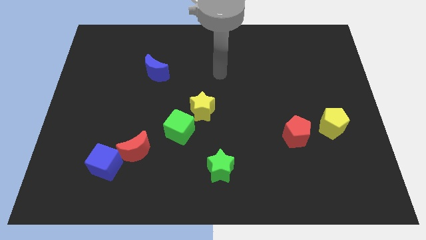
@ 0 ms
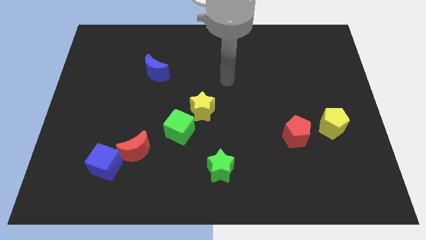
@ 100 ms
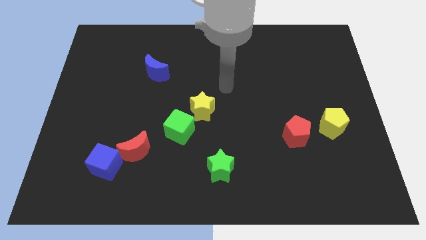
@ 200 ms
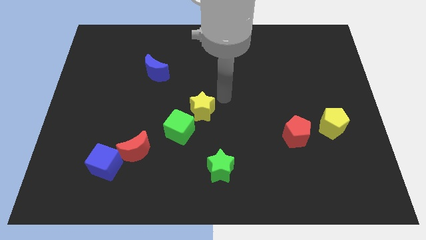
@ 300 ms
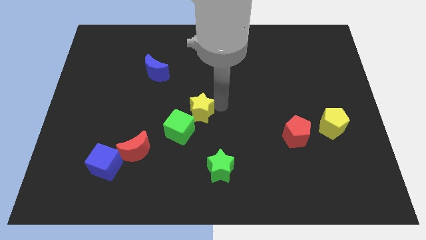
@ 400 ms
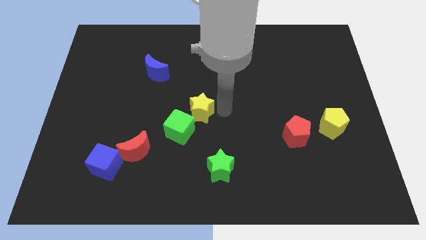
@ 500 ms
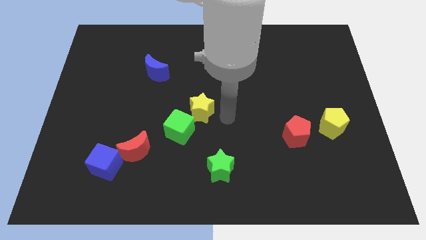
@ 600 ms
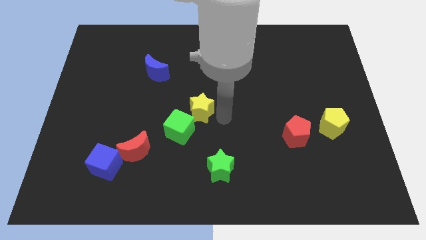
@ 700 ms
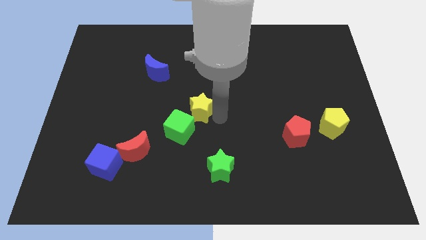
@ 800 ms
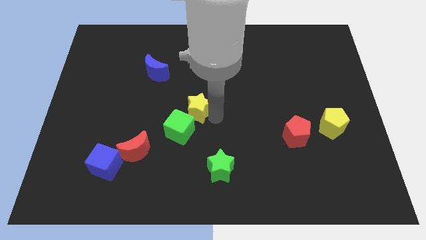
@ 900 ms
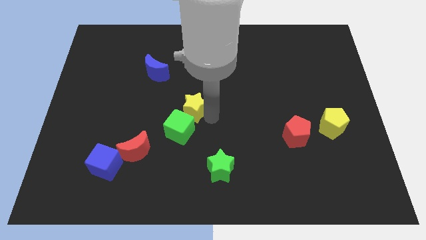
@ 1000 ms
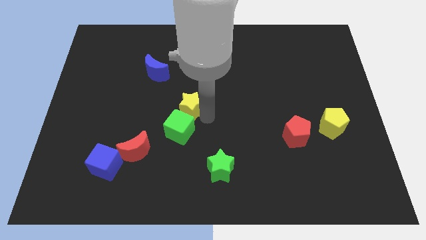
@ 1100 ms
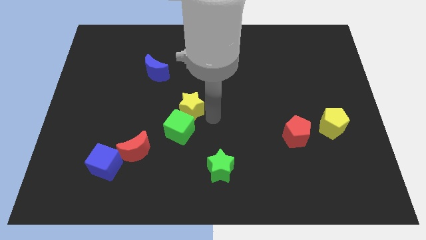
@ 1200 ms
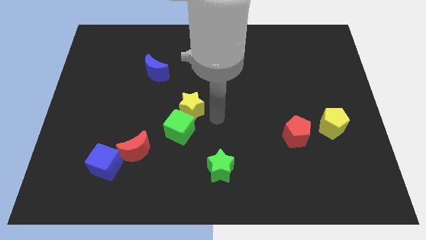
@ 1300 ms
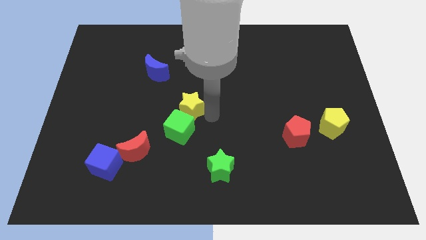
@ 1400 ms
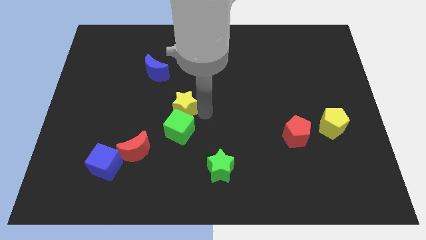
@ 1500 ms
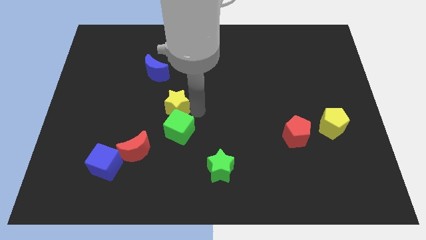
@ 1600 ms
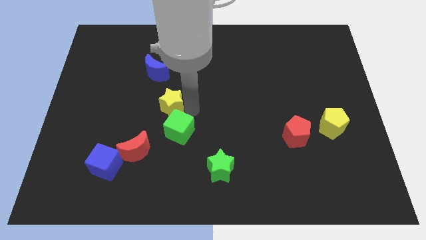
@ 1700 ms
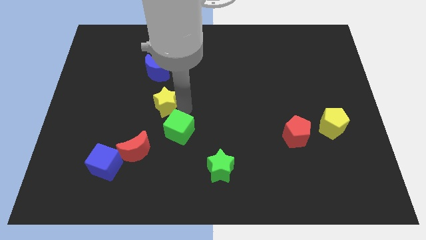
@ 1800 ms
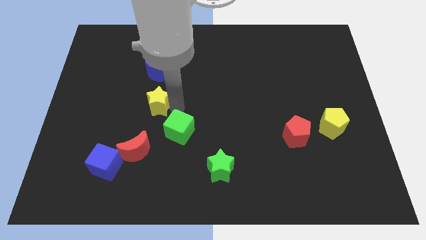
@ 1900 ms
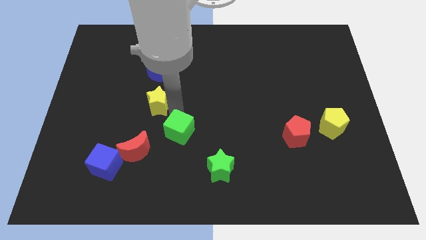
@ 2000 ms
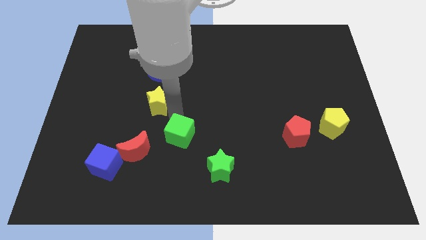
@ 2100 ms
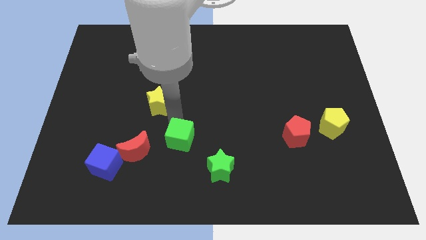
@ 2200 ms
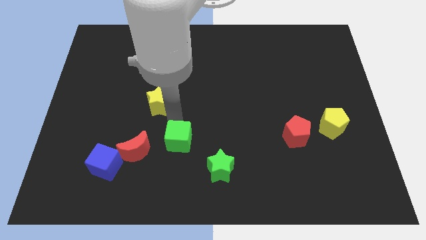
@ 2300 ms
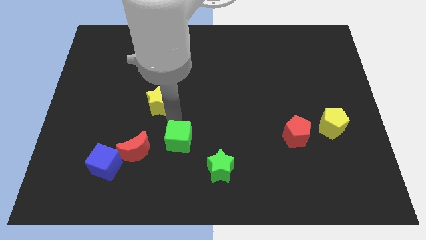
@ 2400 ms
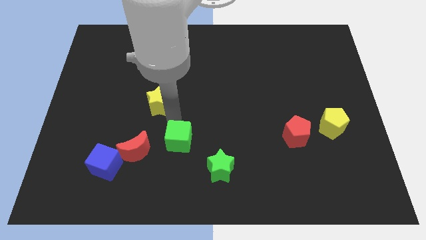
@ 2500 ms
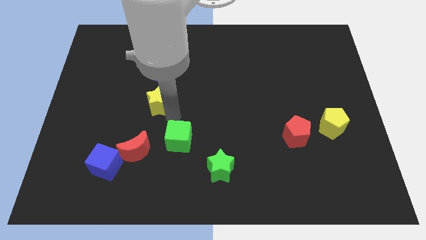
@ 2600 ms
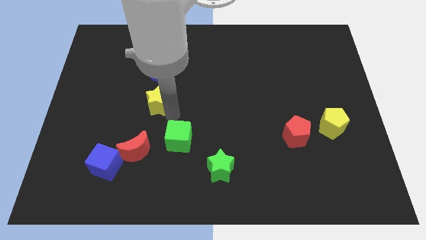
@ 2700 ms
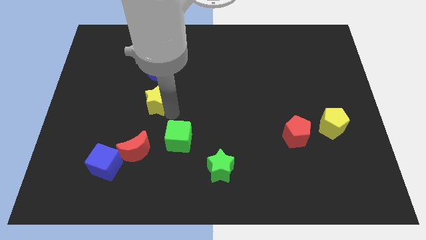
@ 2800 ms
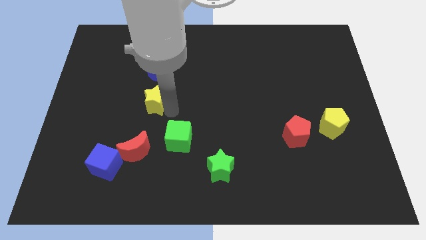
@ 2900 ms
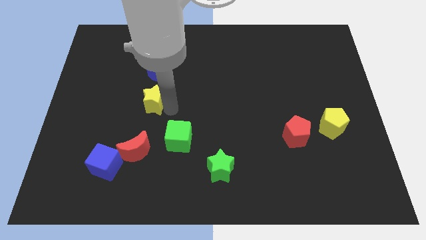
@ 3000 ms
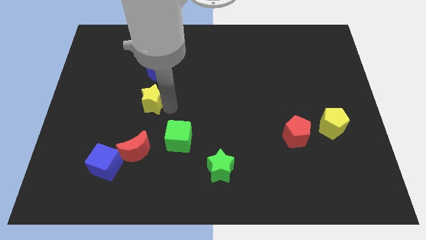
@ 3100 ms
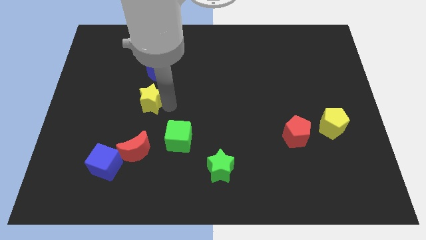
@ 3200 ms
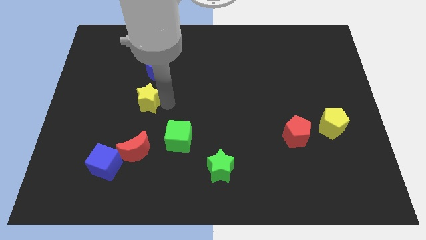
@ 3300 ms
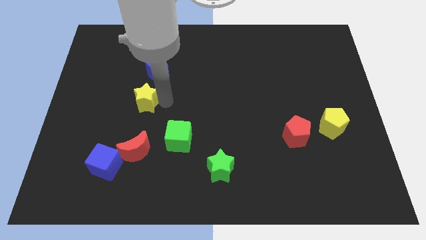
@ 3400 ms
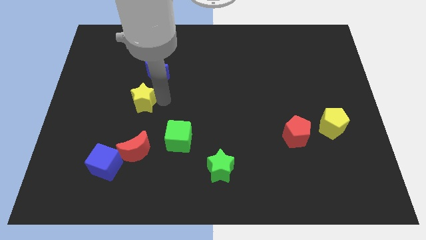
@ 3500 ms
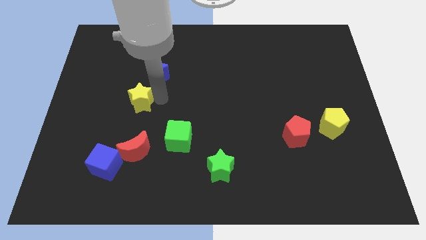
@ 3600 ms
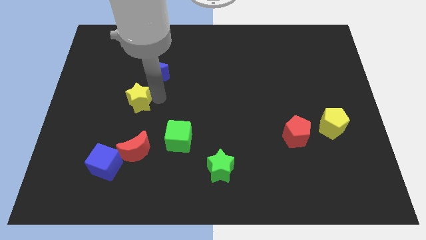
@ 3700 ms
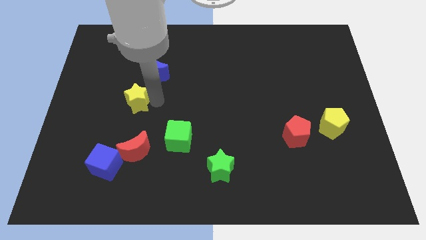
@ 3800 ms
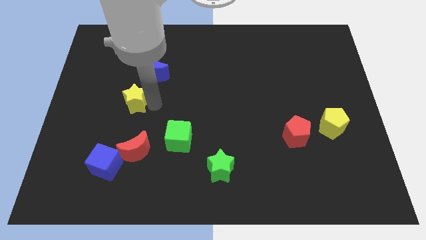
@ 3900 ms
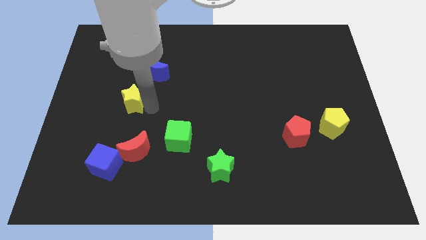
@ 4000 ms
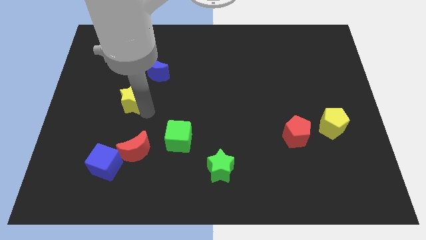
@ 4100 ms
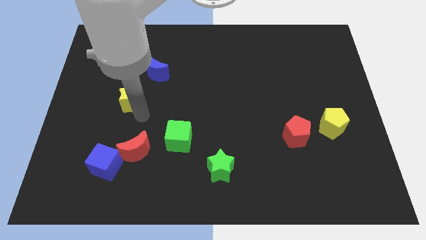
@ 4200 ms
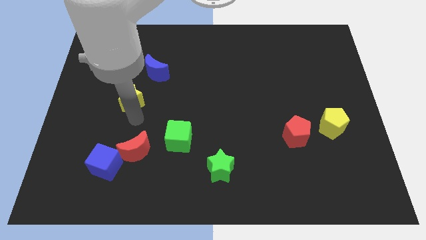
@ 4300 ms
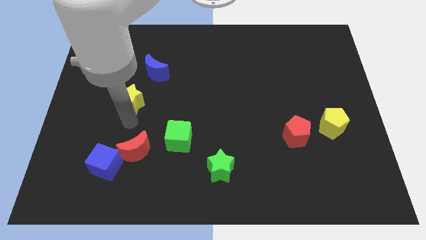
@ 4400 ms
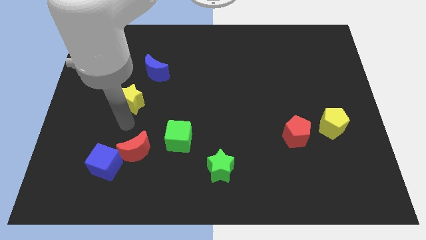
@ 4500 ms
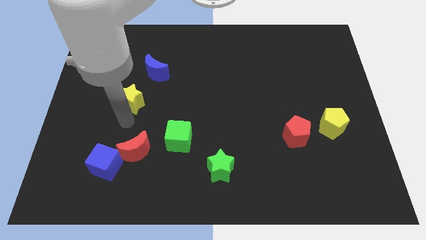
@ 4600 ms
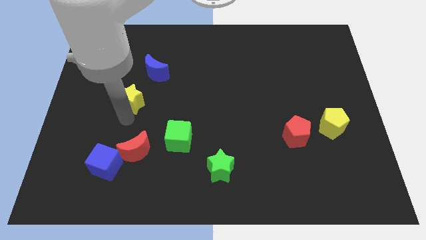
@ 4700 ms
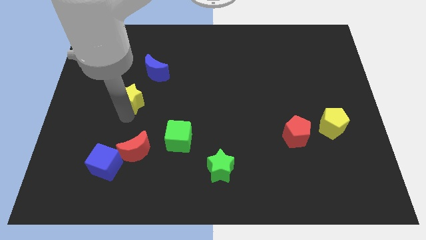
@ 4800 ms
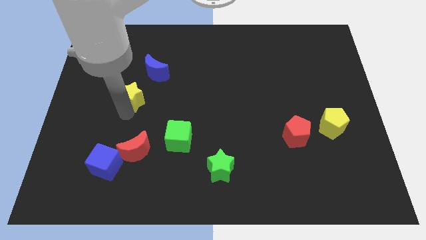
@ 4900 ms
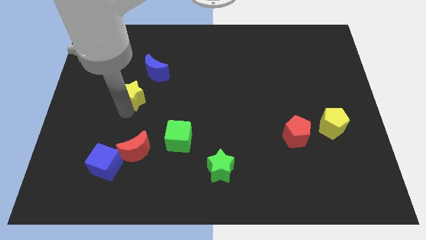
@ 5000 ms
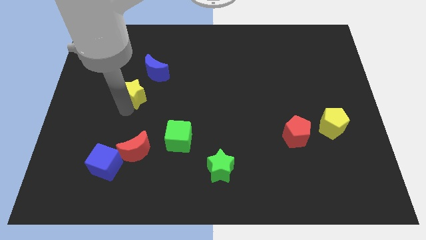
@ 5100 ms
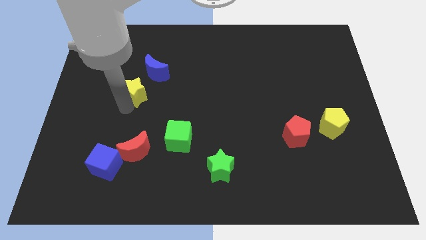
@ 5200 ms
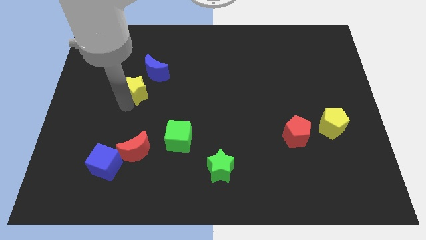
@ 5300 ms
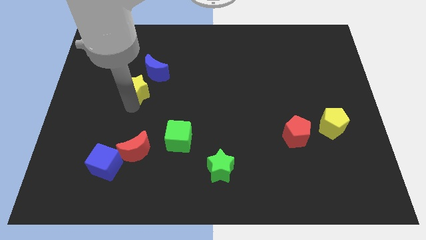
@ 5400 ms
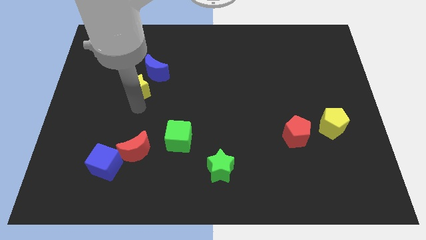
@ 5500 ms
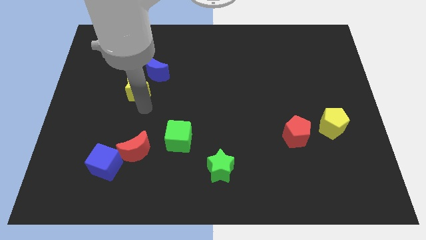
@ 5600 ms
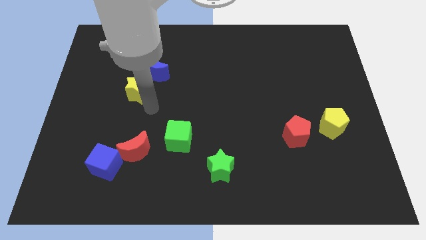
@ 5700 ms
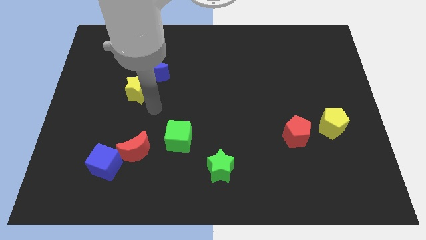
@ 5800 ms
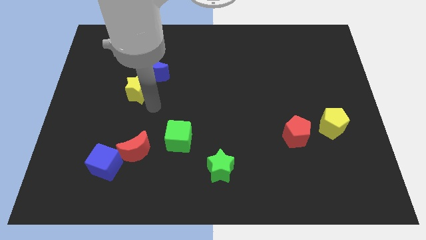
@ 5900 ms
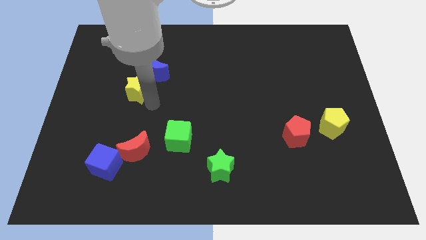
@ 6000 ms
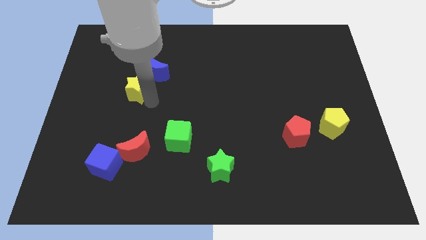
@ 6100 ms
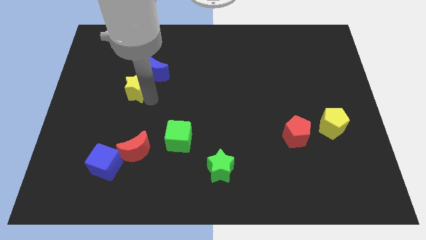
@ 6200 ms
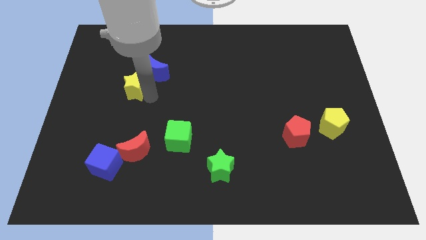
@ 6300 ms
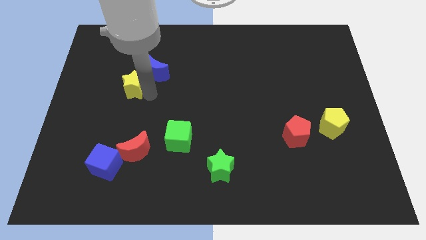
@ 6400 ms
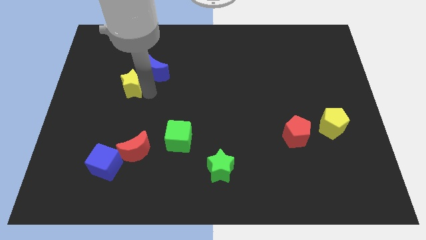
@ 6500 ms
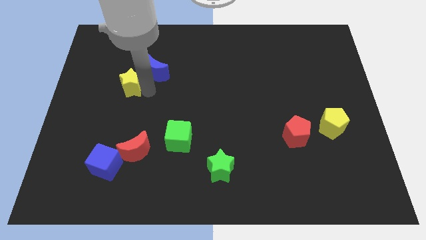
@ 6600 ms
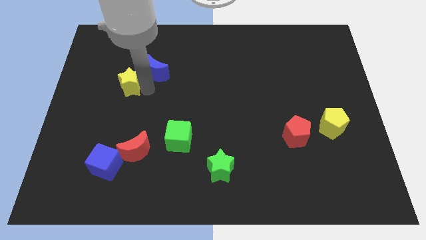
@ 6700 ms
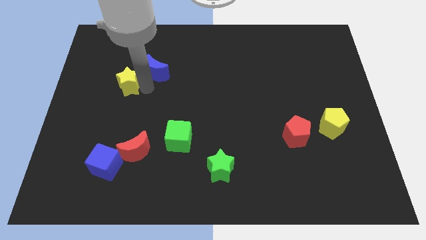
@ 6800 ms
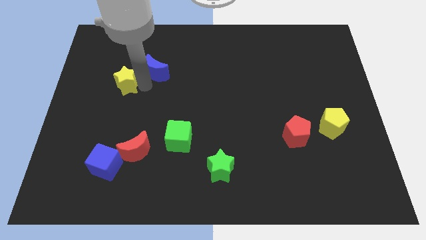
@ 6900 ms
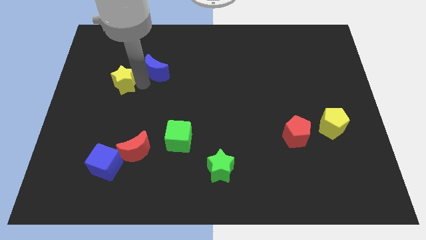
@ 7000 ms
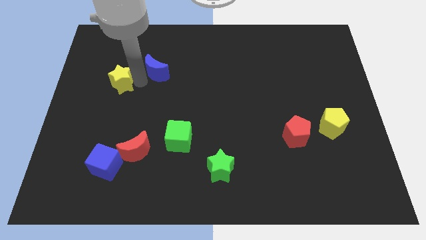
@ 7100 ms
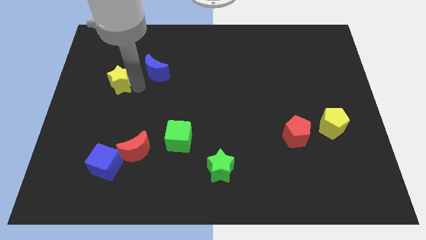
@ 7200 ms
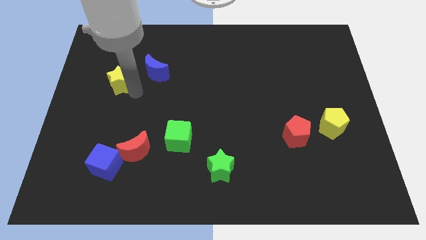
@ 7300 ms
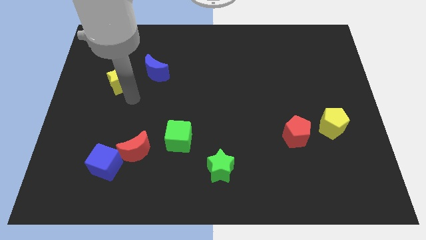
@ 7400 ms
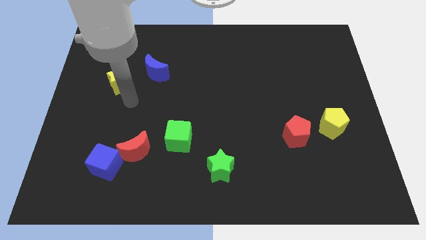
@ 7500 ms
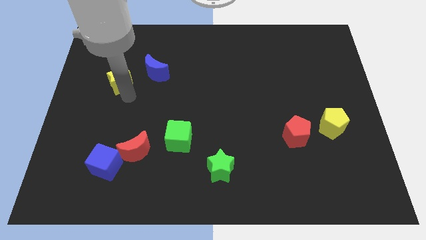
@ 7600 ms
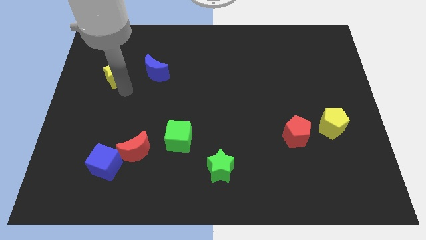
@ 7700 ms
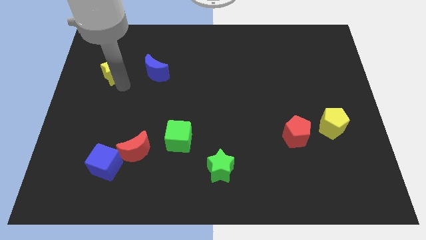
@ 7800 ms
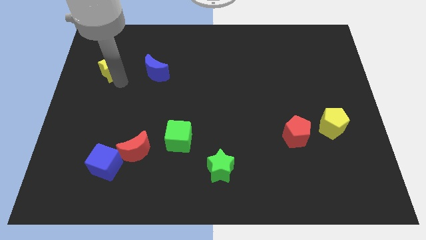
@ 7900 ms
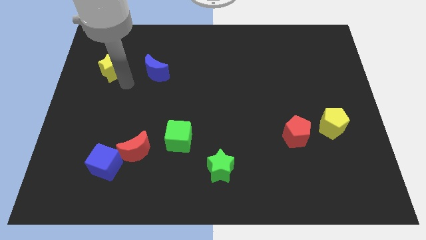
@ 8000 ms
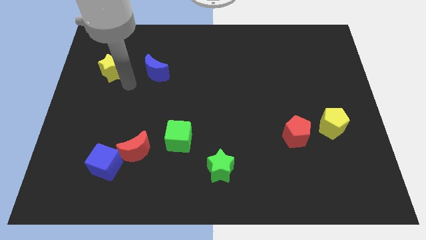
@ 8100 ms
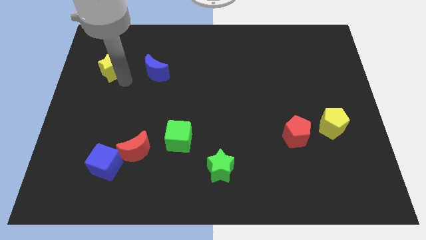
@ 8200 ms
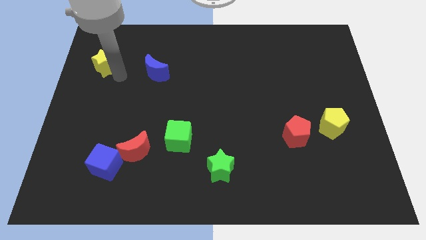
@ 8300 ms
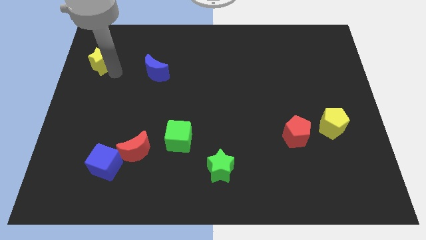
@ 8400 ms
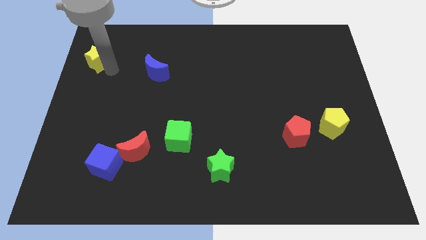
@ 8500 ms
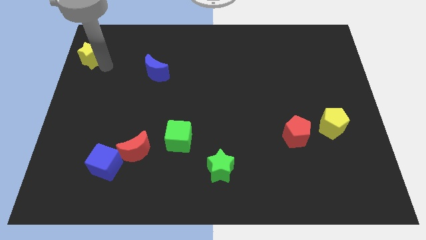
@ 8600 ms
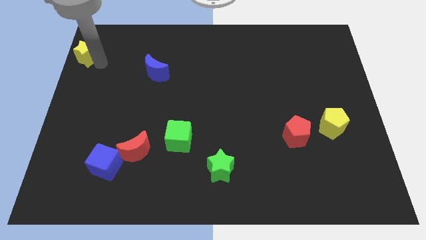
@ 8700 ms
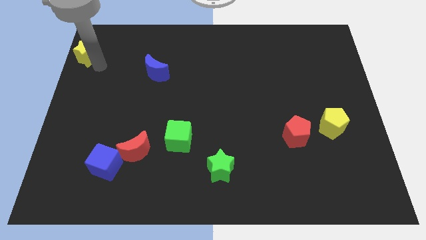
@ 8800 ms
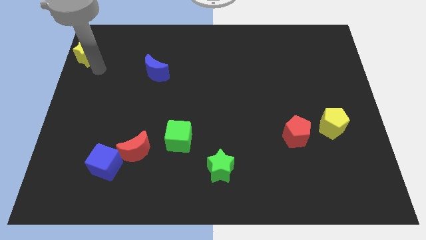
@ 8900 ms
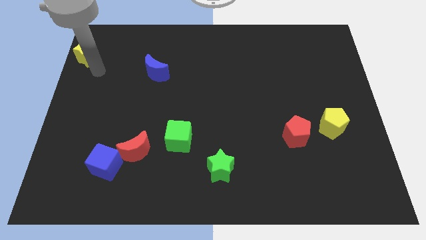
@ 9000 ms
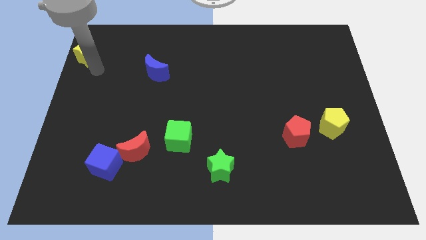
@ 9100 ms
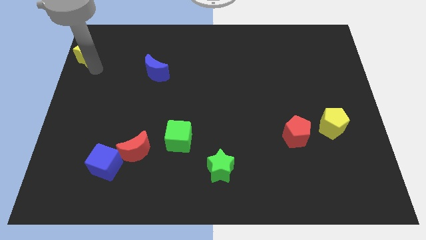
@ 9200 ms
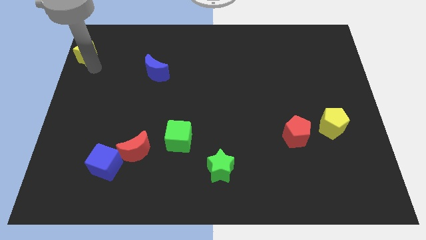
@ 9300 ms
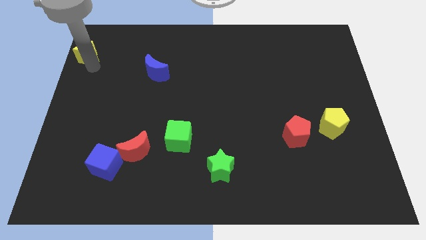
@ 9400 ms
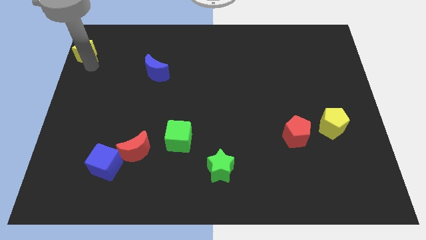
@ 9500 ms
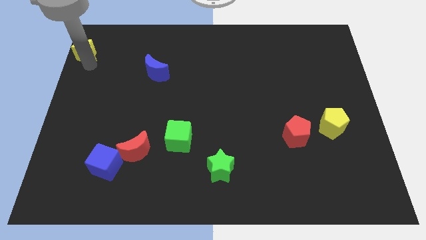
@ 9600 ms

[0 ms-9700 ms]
slide the yellow star to the upper left corner
